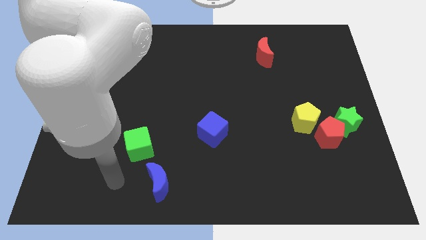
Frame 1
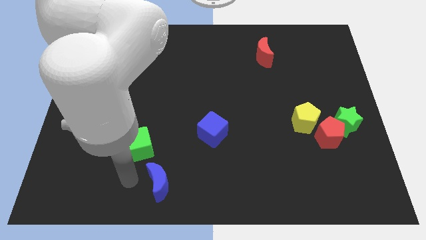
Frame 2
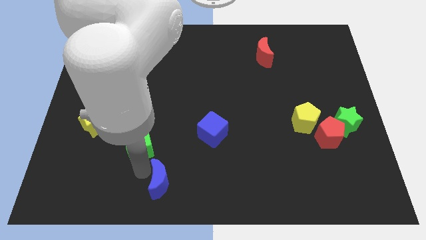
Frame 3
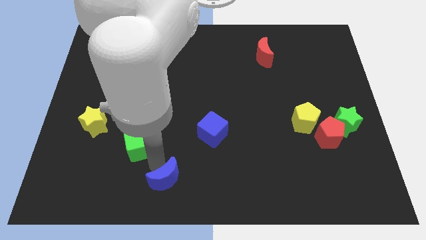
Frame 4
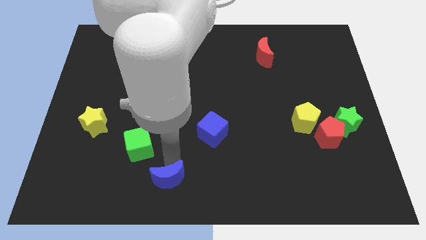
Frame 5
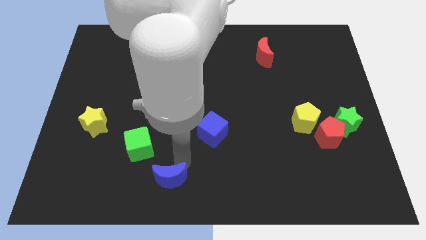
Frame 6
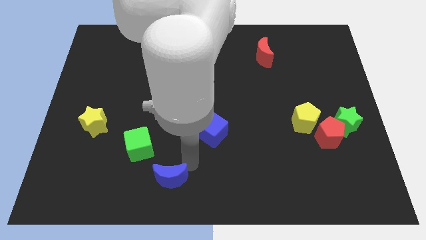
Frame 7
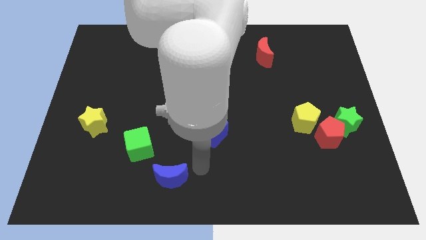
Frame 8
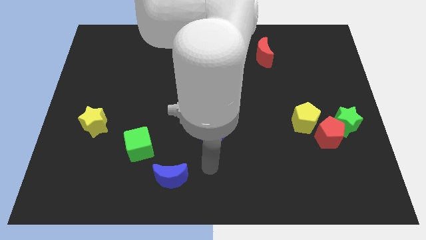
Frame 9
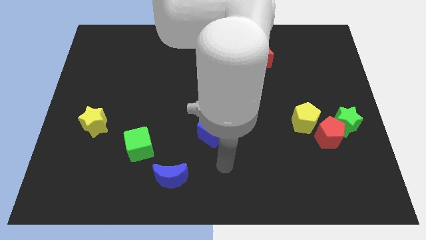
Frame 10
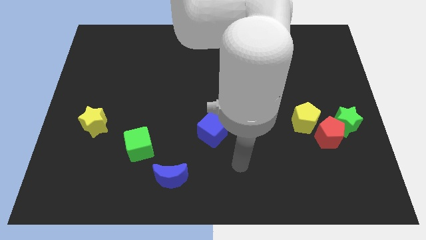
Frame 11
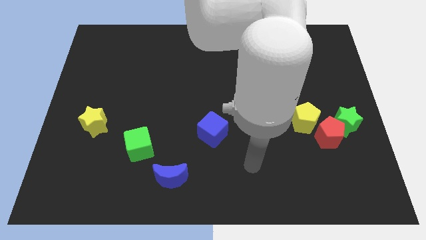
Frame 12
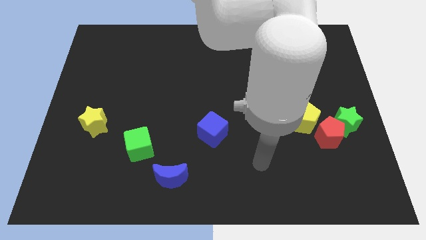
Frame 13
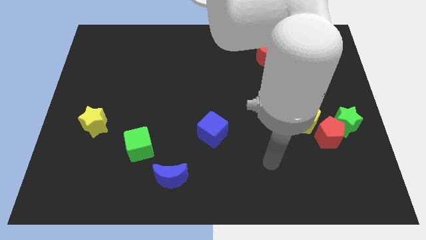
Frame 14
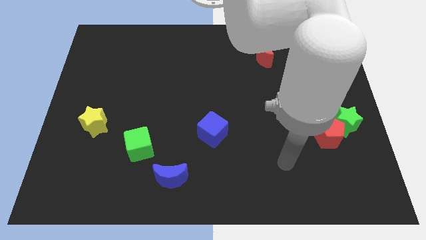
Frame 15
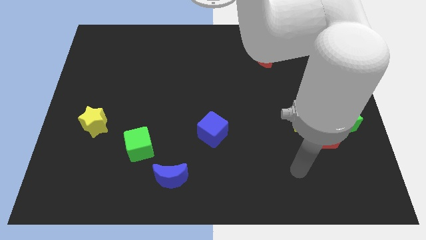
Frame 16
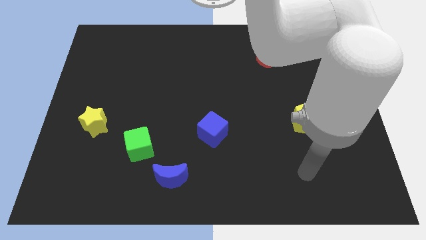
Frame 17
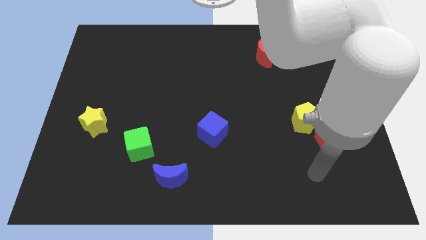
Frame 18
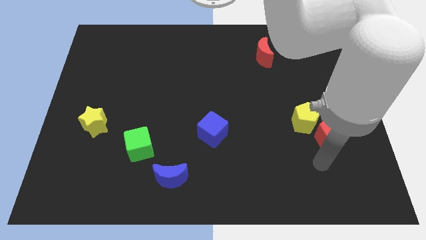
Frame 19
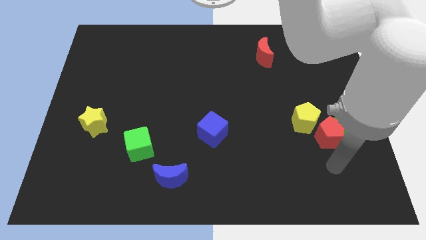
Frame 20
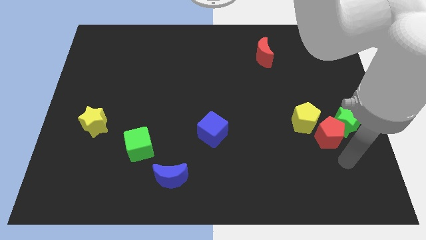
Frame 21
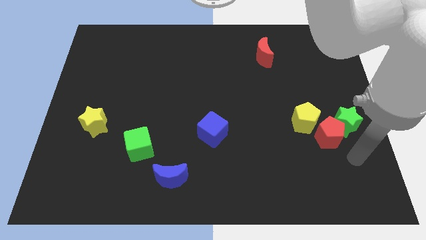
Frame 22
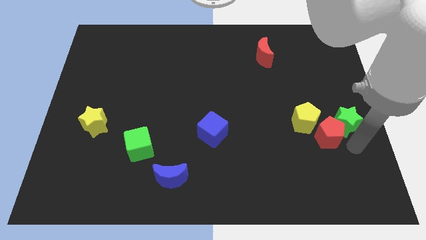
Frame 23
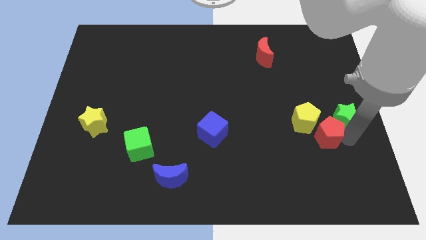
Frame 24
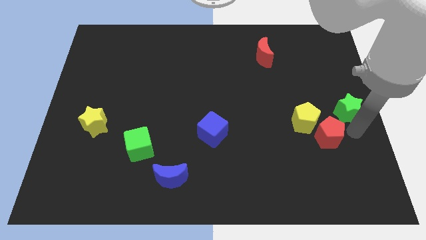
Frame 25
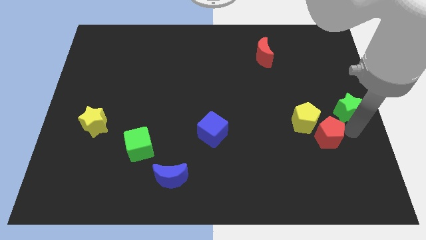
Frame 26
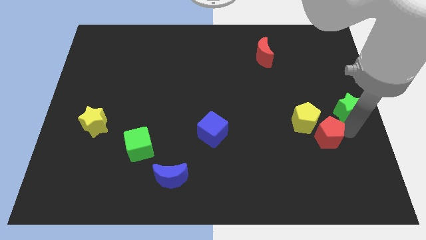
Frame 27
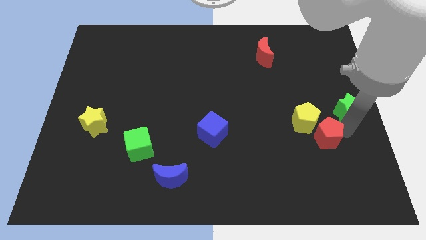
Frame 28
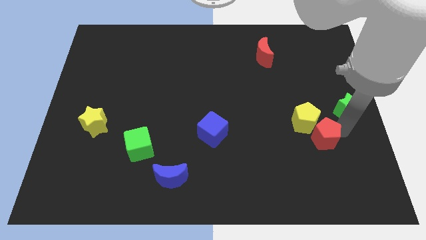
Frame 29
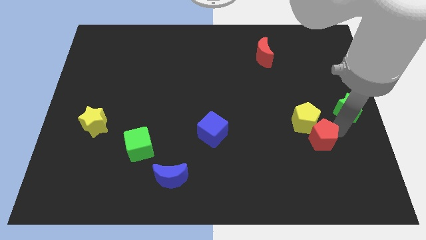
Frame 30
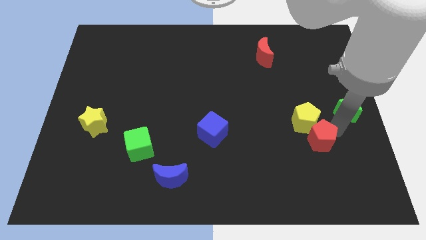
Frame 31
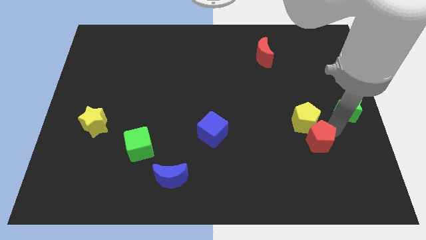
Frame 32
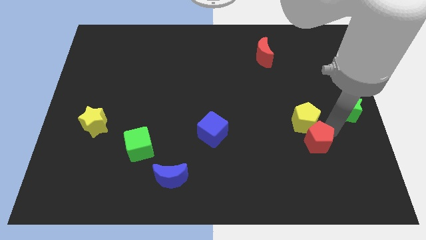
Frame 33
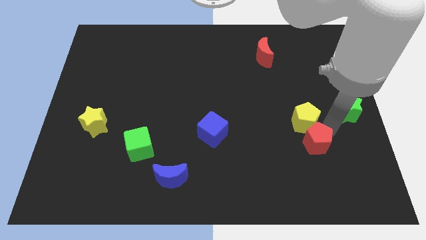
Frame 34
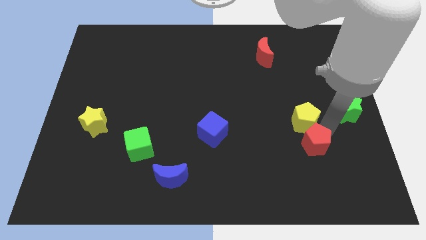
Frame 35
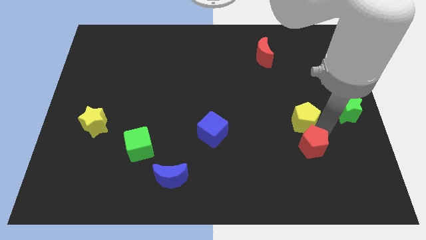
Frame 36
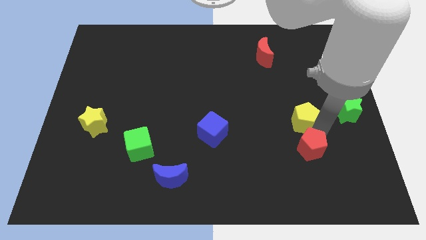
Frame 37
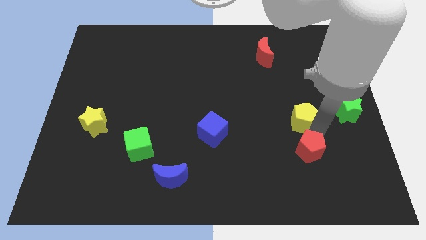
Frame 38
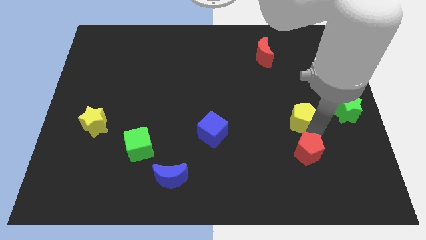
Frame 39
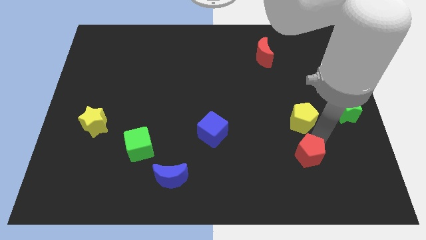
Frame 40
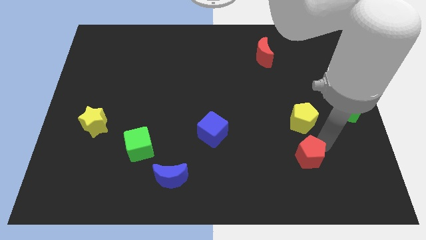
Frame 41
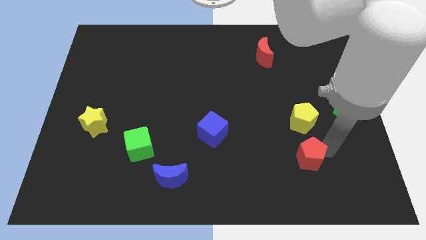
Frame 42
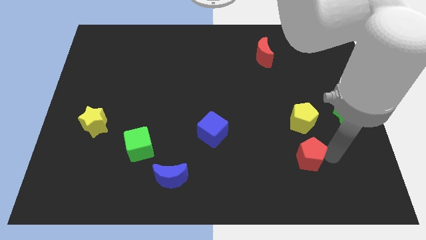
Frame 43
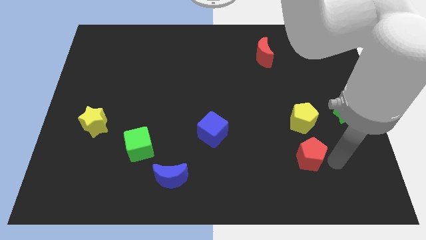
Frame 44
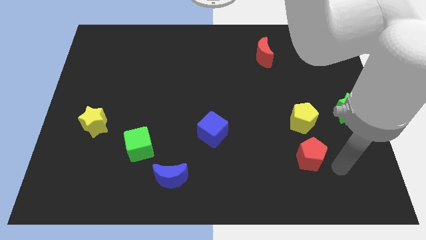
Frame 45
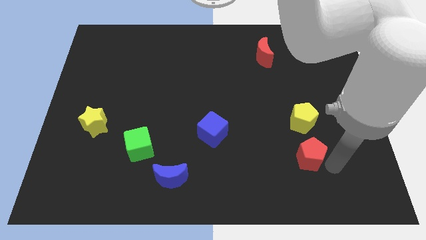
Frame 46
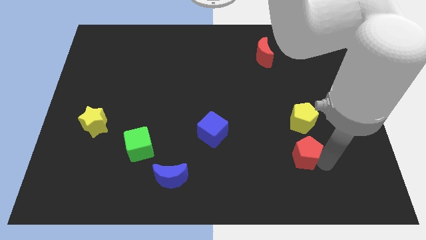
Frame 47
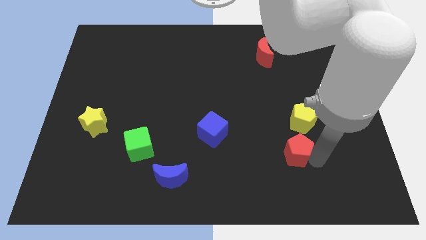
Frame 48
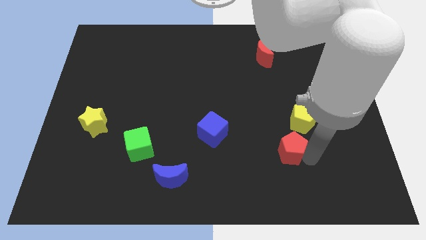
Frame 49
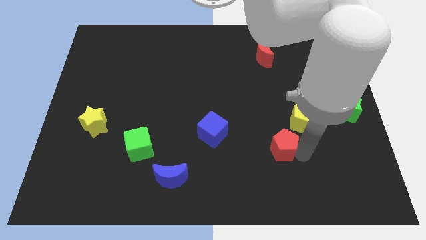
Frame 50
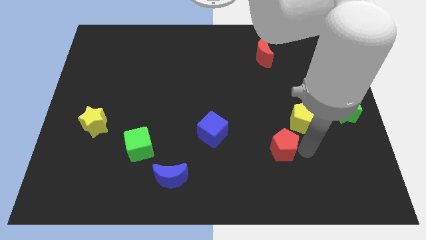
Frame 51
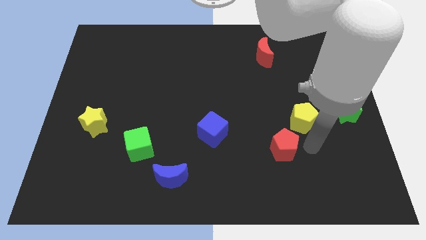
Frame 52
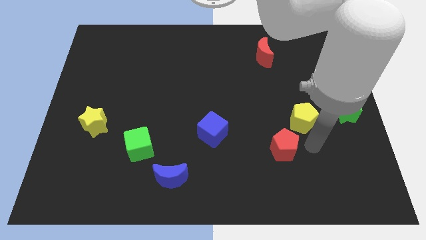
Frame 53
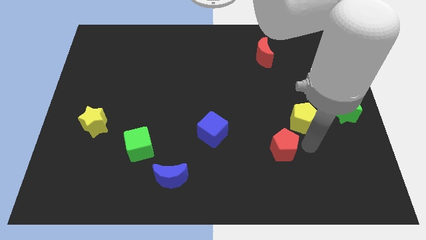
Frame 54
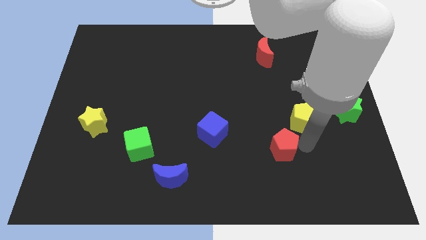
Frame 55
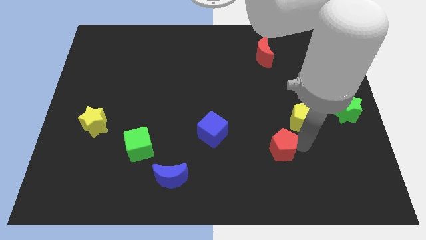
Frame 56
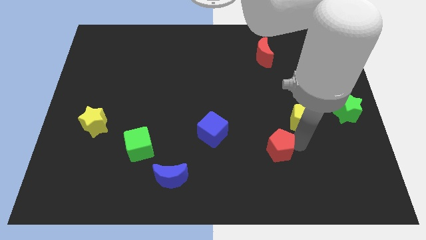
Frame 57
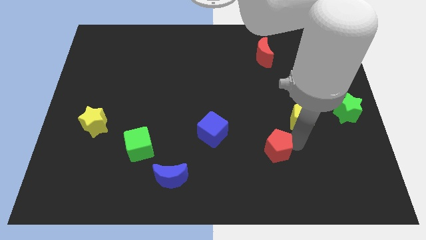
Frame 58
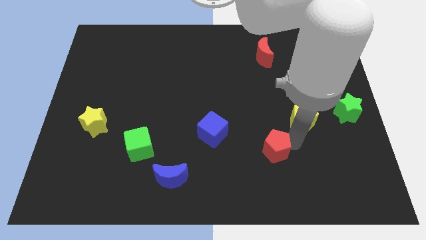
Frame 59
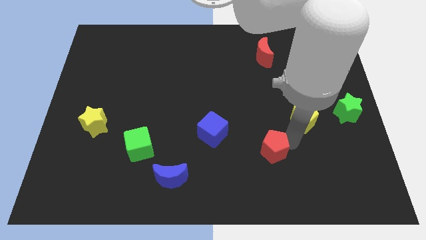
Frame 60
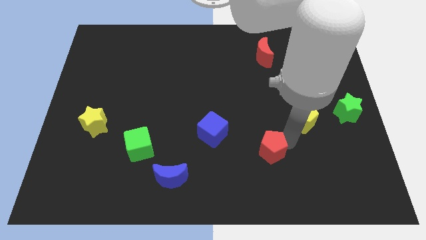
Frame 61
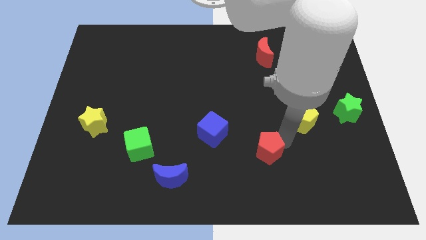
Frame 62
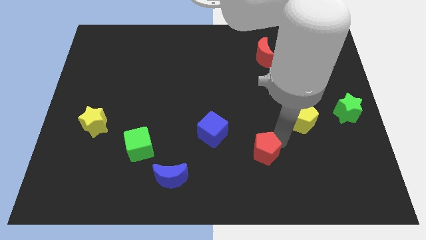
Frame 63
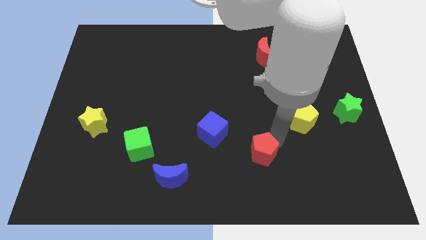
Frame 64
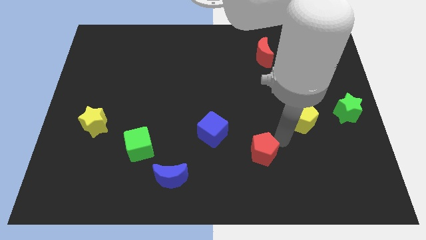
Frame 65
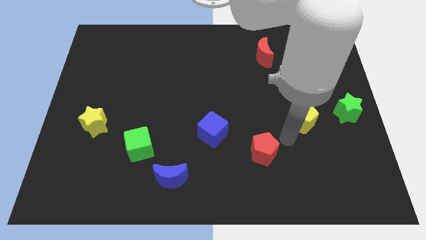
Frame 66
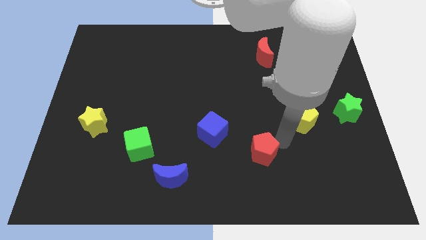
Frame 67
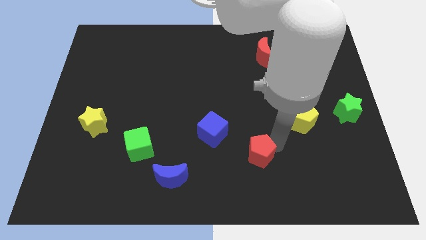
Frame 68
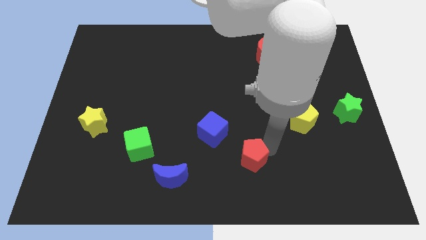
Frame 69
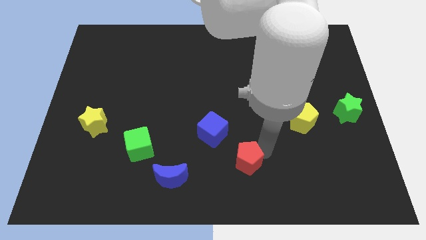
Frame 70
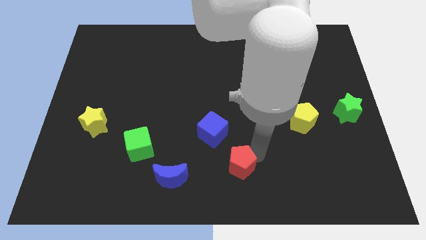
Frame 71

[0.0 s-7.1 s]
slide the red pentagon to the right side of the blue moon

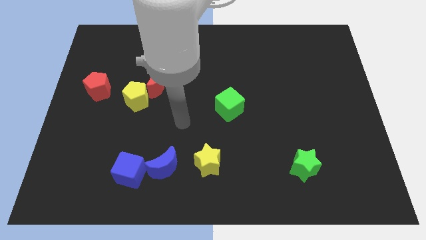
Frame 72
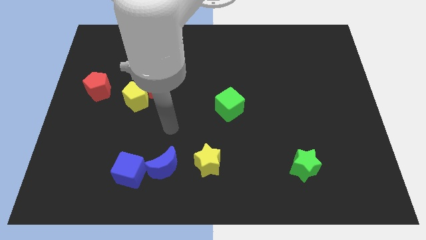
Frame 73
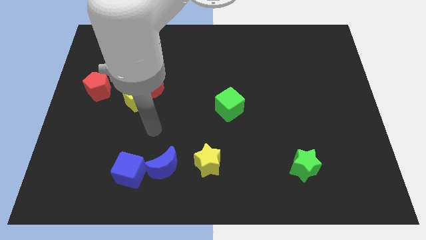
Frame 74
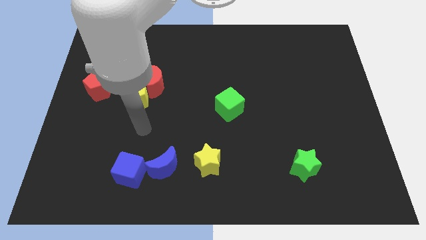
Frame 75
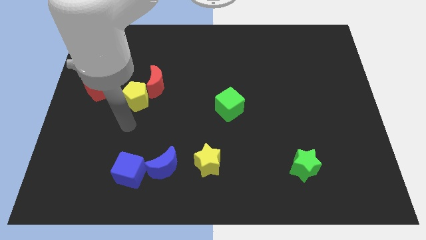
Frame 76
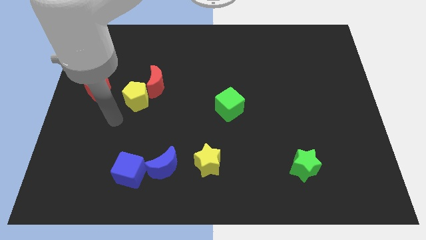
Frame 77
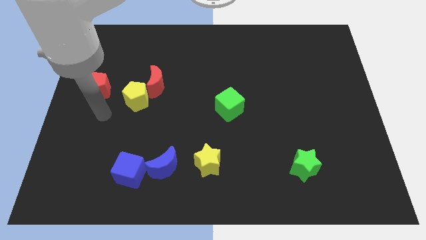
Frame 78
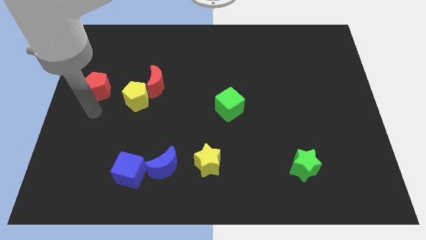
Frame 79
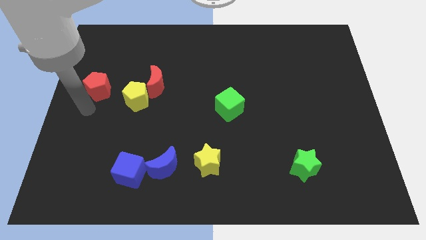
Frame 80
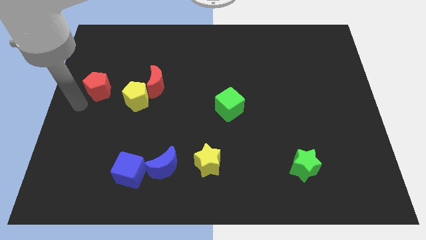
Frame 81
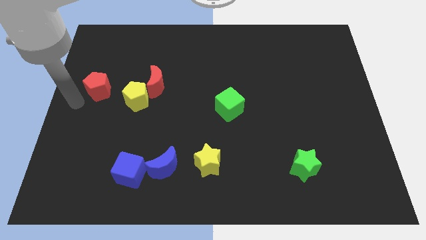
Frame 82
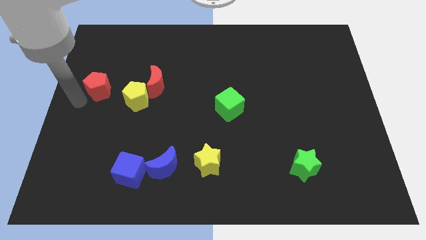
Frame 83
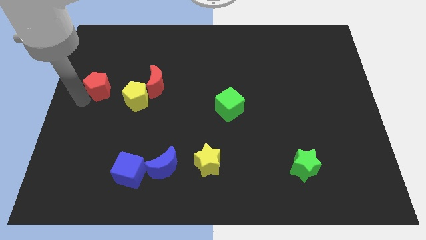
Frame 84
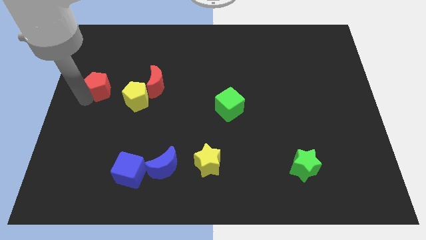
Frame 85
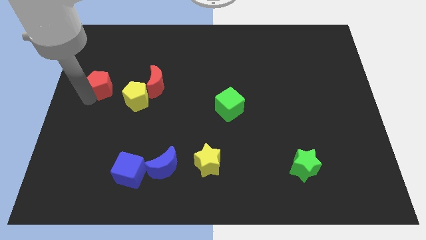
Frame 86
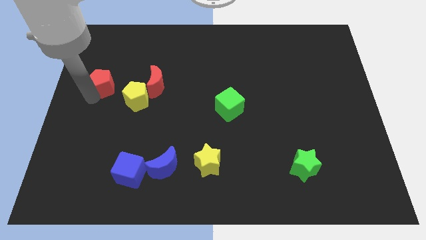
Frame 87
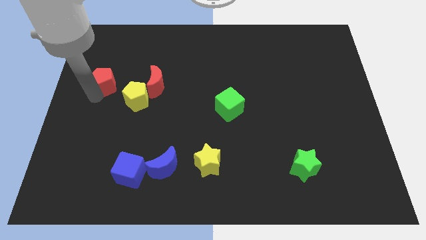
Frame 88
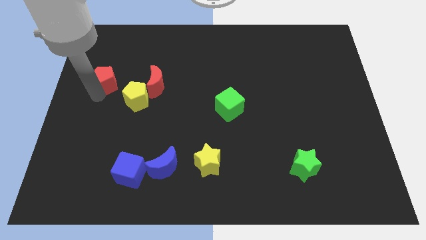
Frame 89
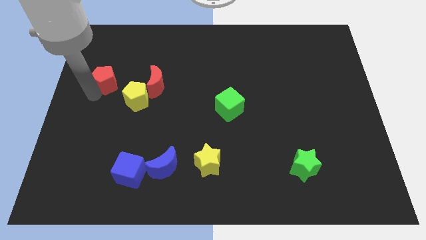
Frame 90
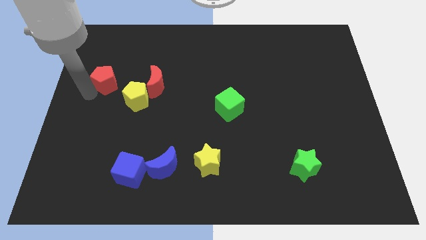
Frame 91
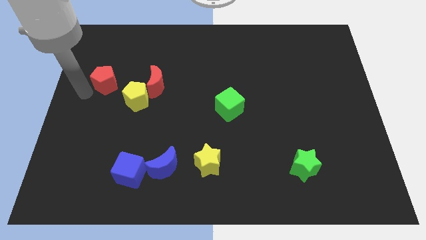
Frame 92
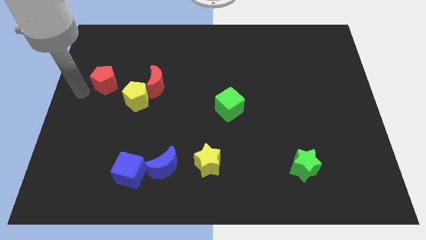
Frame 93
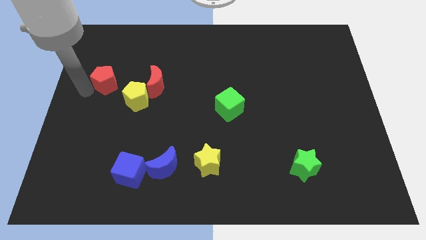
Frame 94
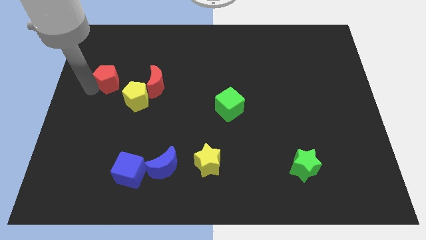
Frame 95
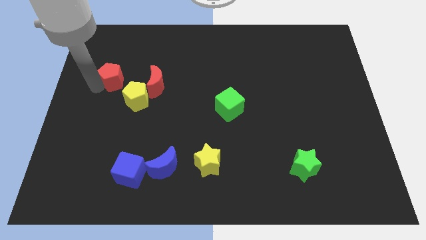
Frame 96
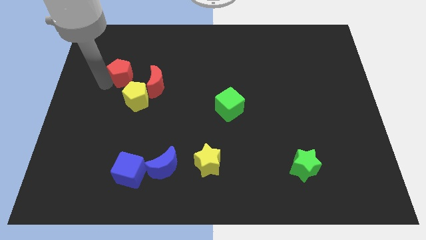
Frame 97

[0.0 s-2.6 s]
move the red pentagon to the top side of the yellow pentagon
